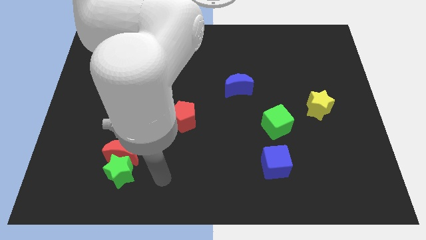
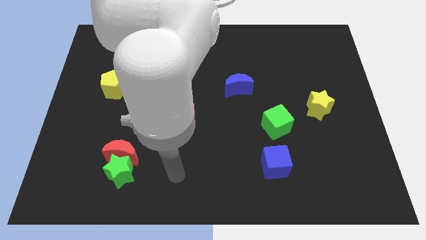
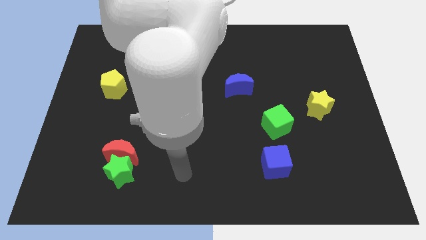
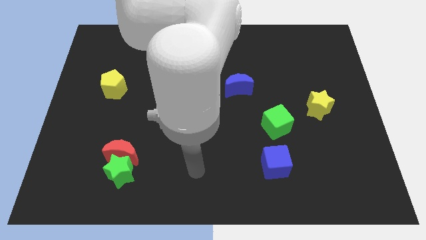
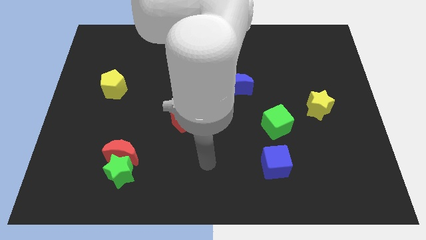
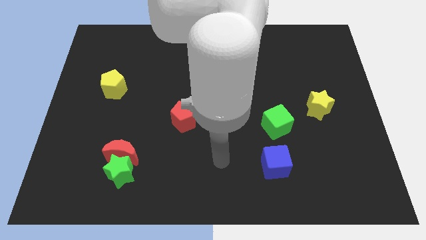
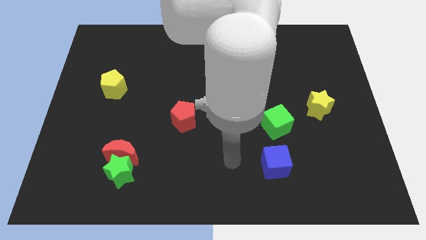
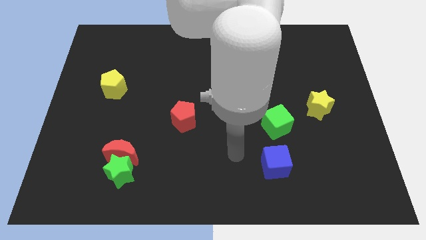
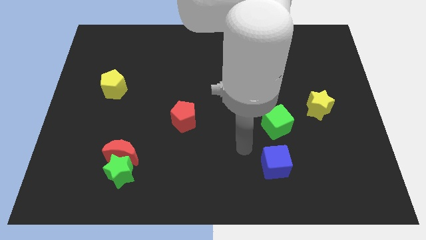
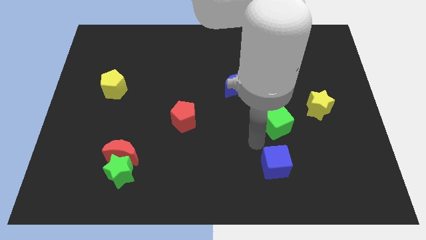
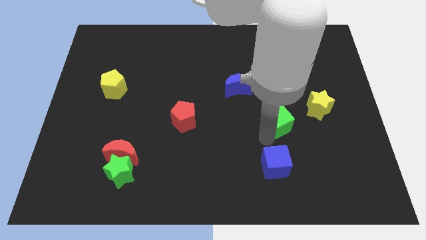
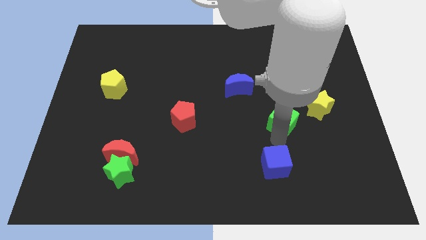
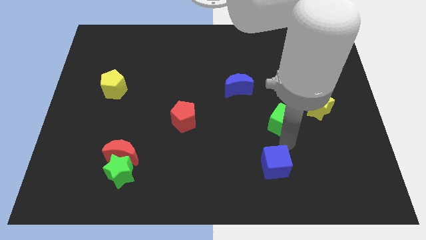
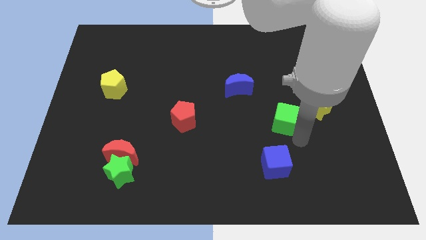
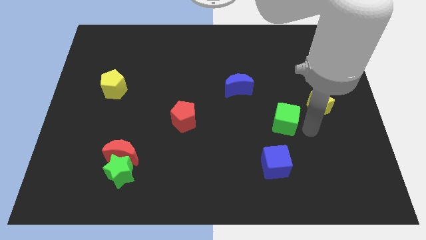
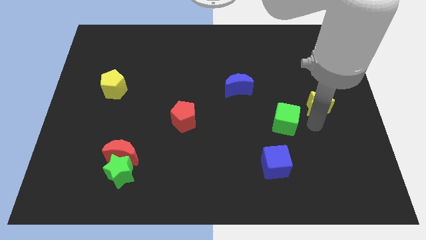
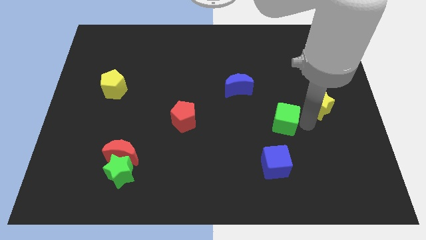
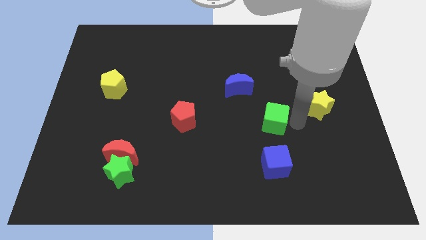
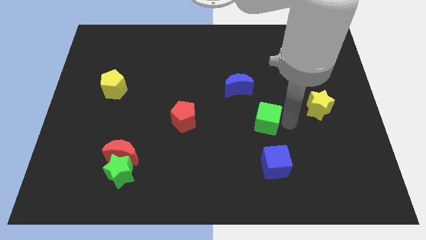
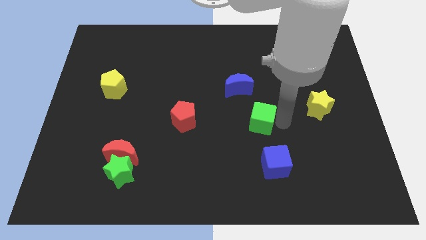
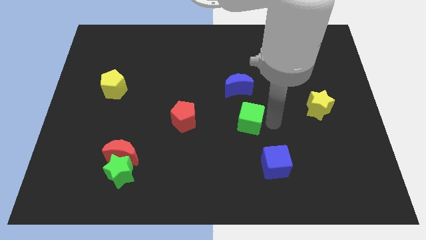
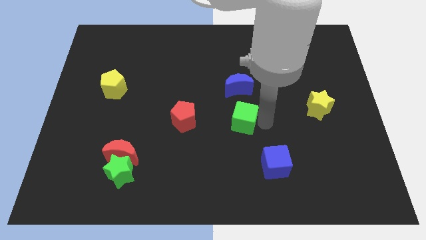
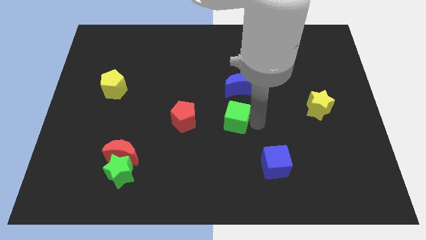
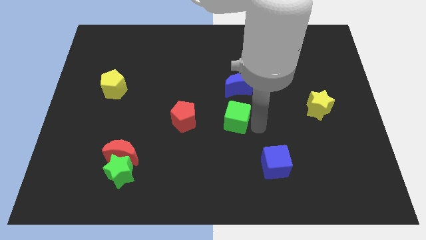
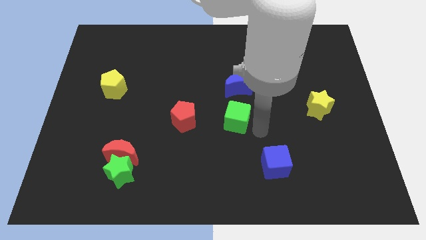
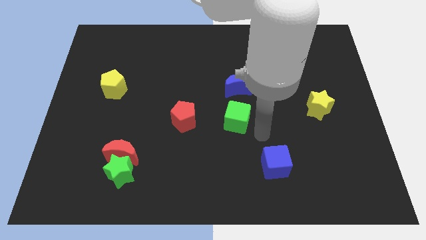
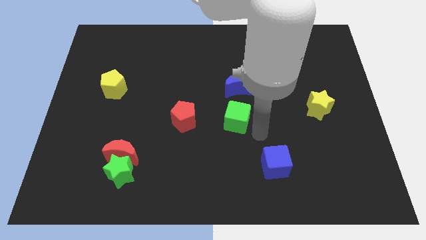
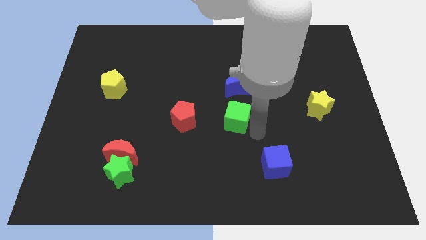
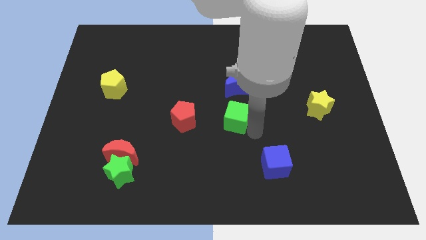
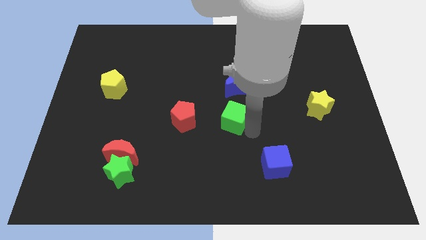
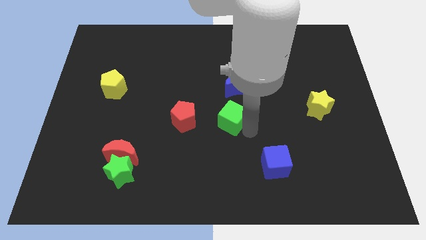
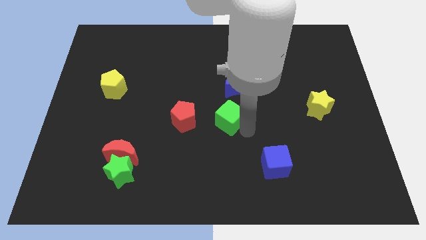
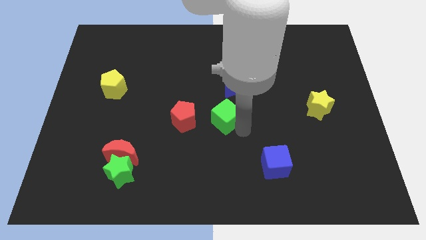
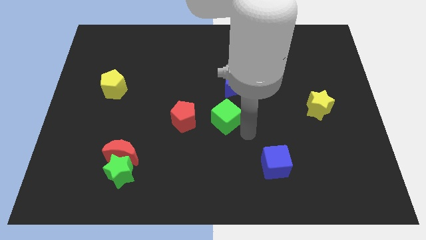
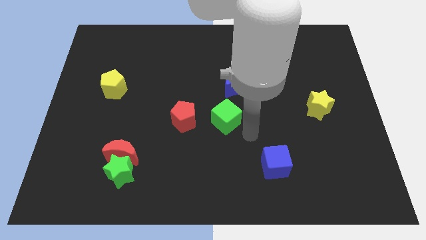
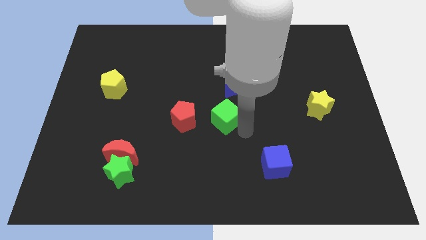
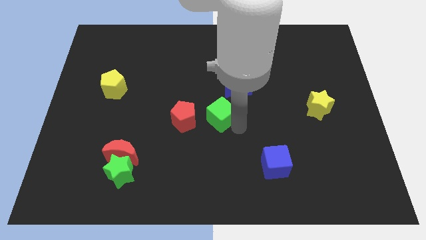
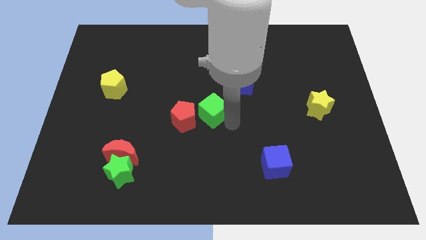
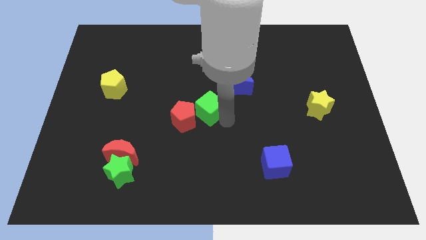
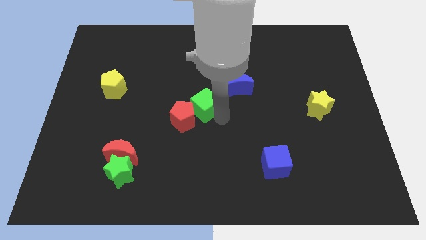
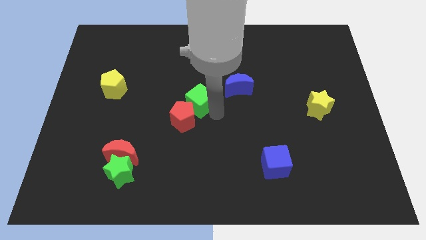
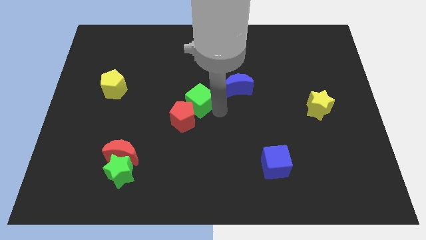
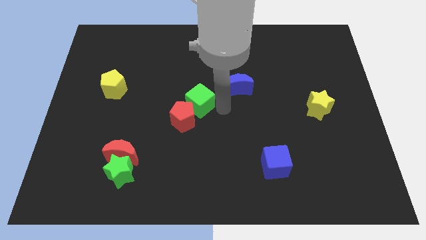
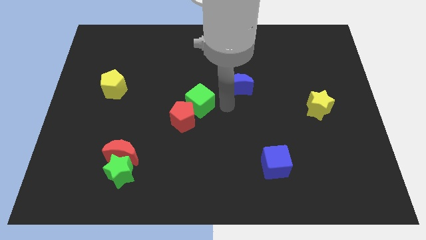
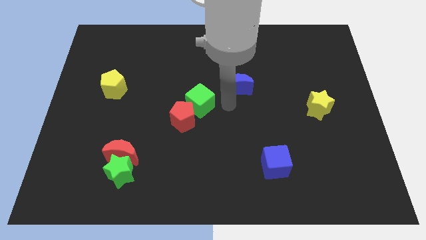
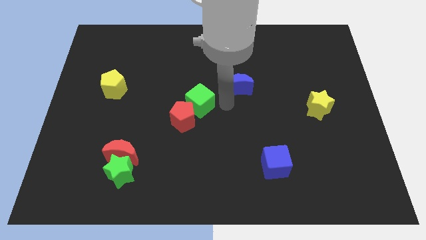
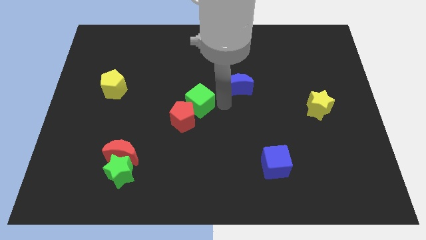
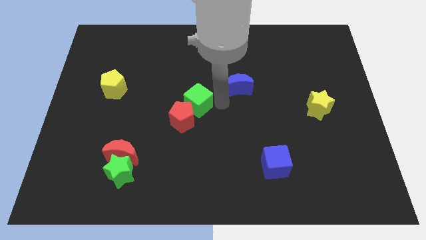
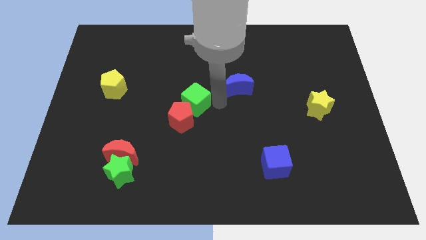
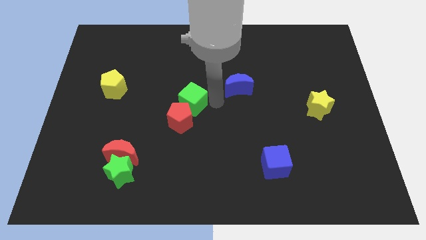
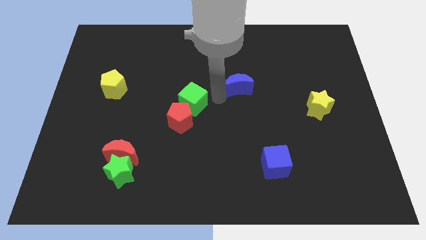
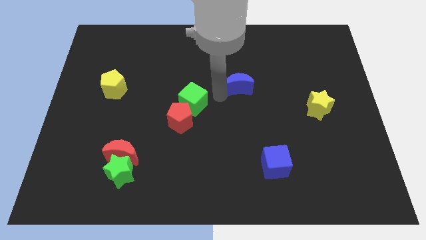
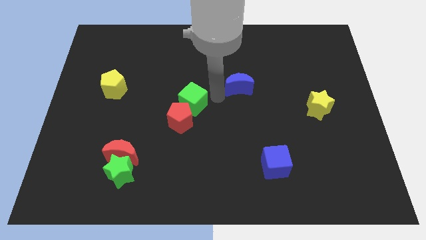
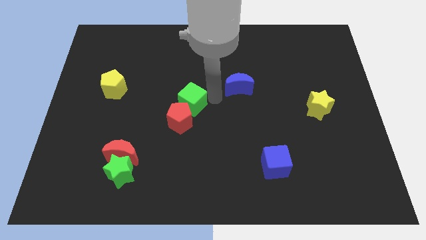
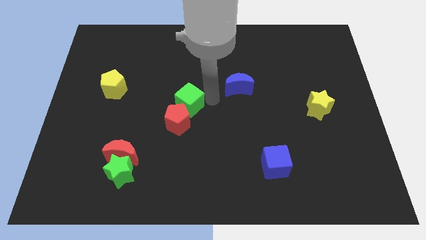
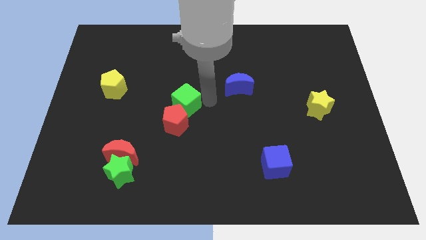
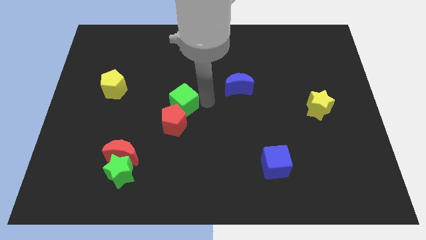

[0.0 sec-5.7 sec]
push the green cube left

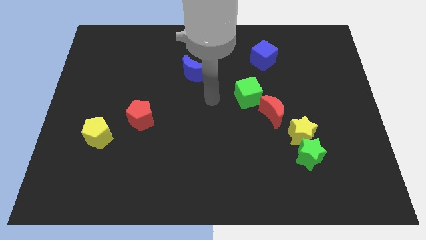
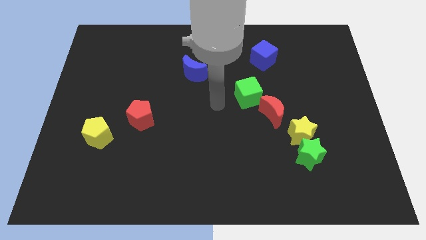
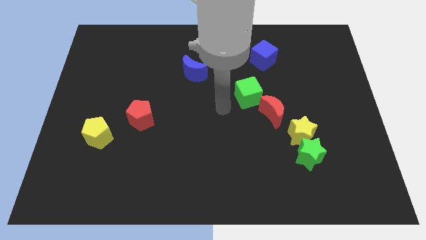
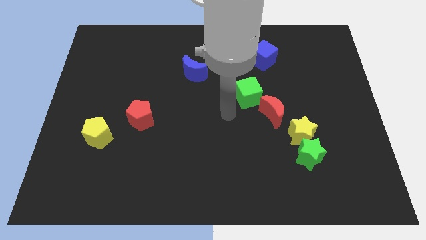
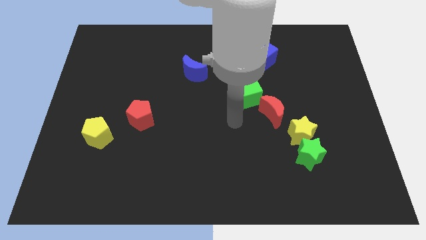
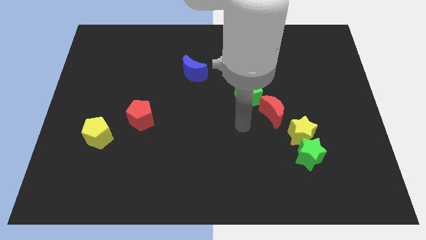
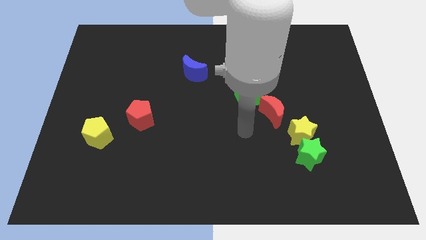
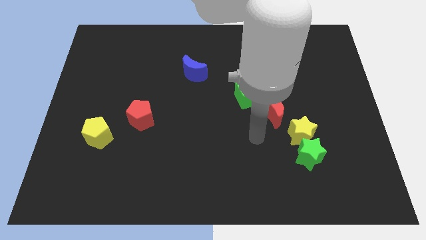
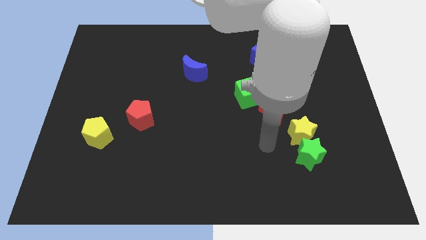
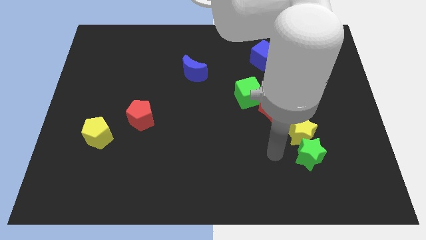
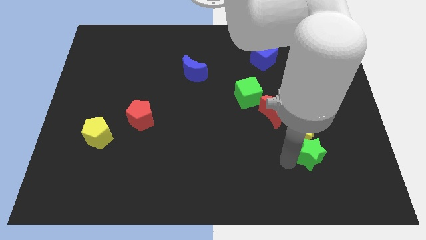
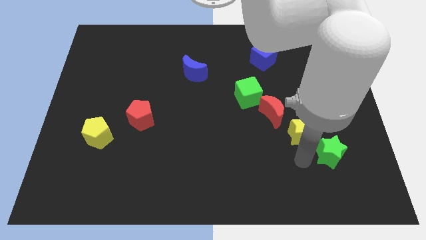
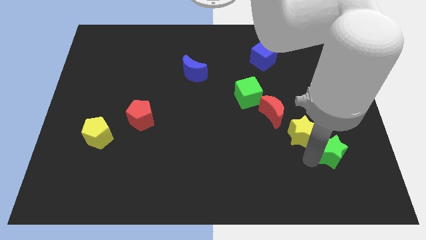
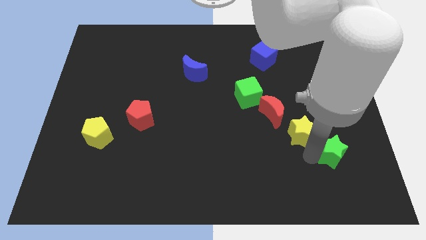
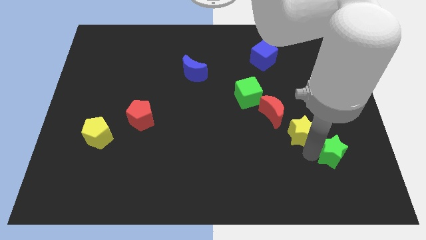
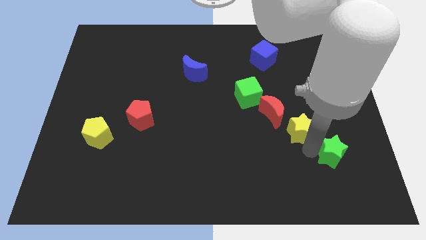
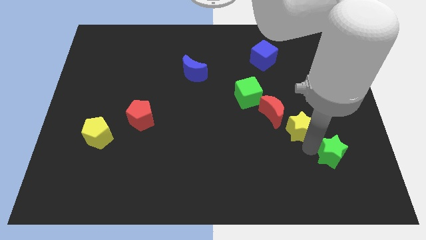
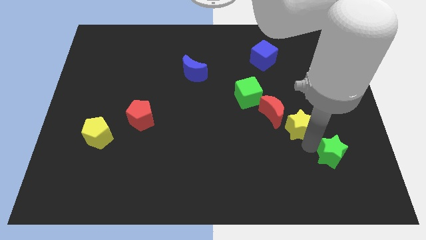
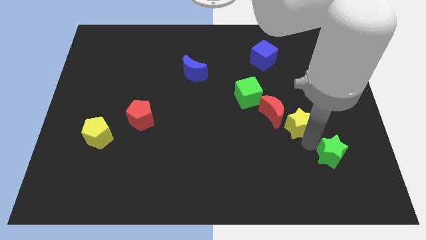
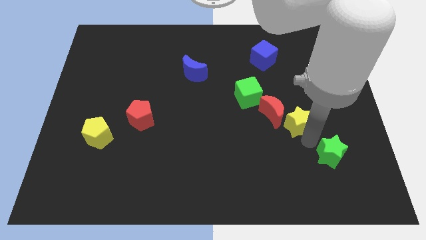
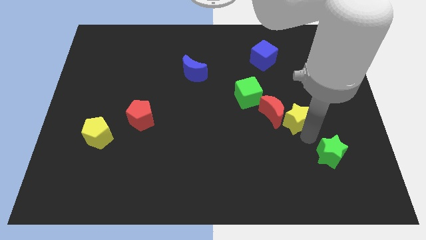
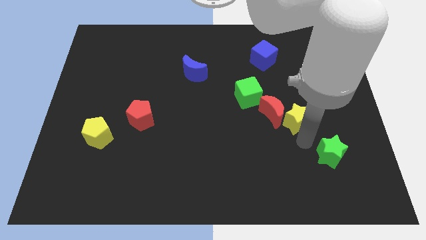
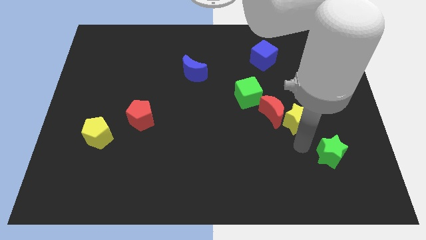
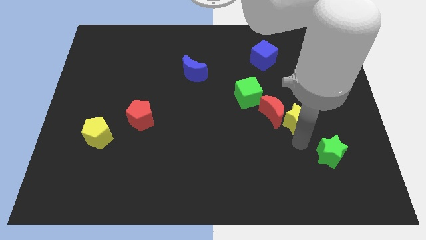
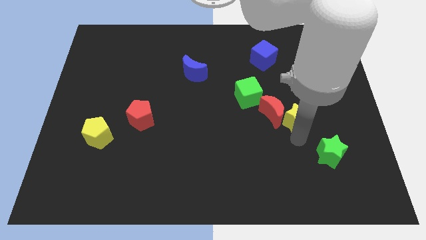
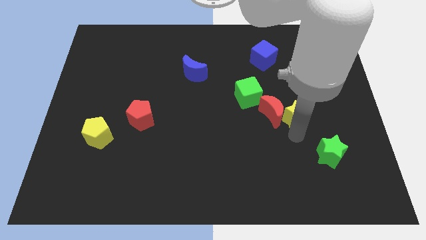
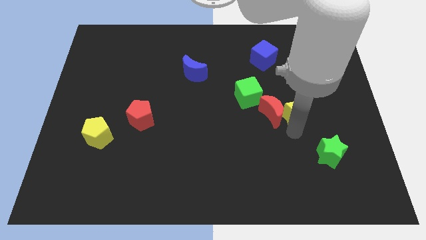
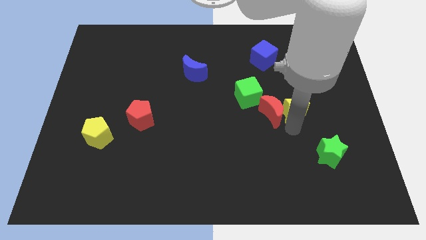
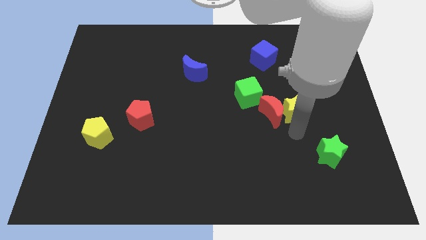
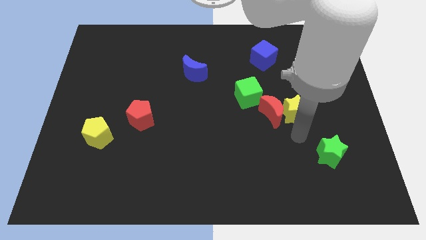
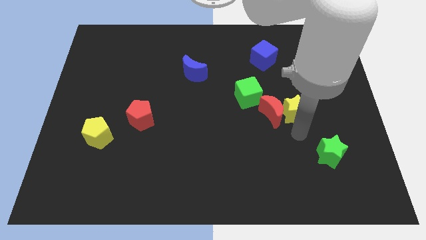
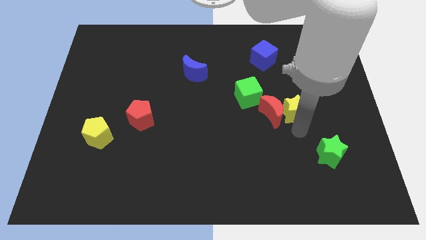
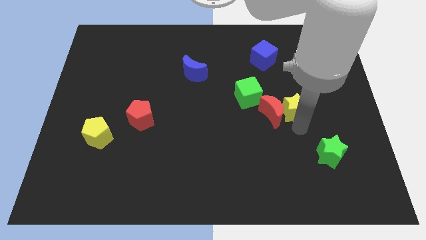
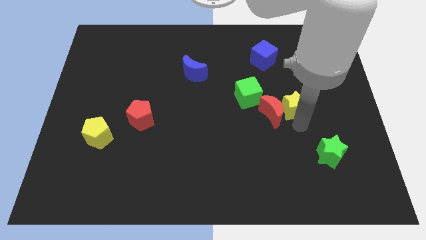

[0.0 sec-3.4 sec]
slightly push the yellow star up
